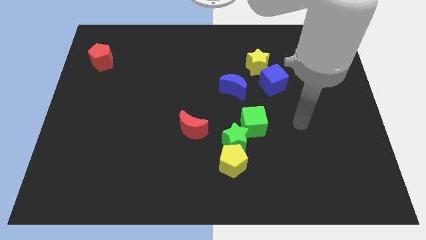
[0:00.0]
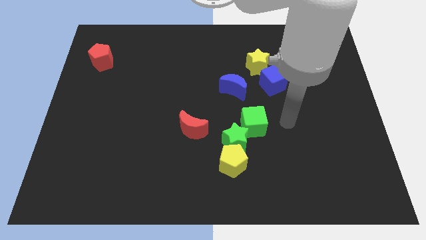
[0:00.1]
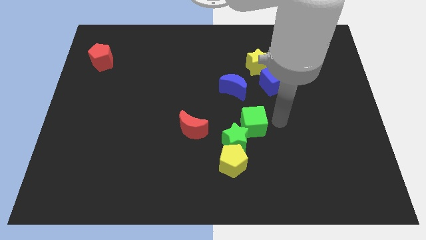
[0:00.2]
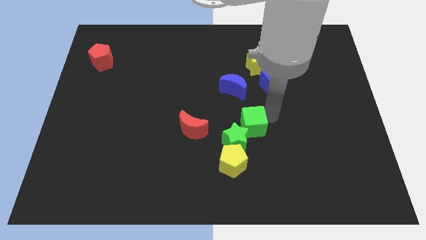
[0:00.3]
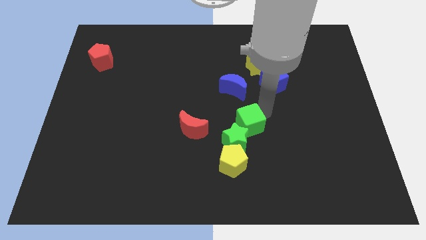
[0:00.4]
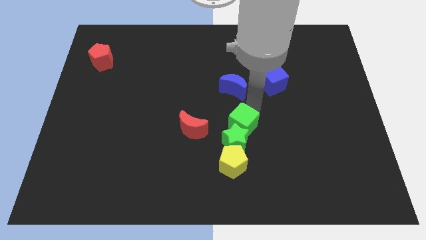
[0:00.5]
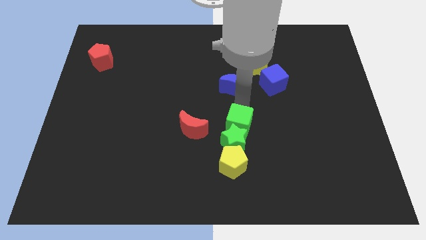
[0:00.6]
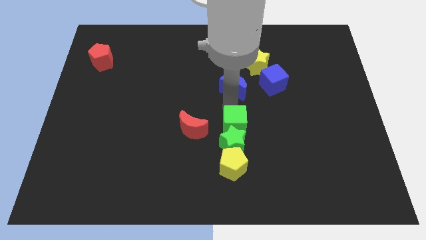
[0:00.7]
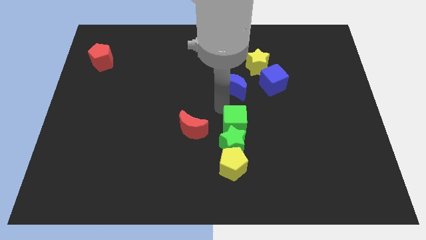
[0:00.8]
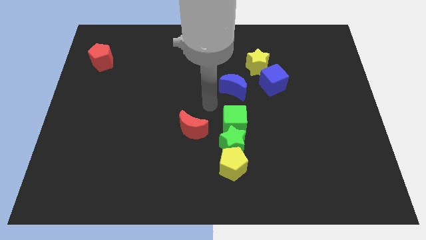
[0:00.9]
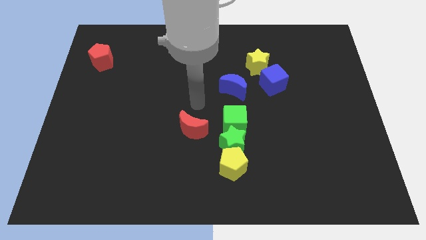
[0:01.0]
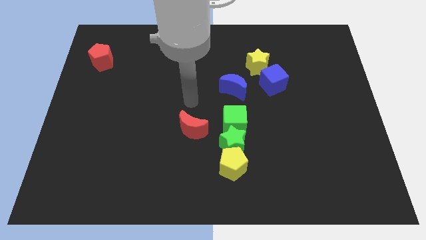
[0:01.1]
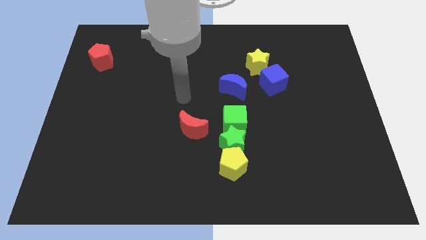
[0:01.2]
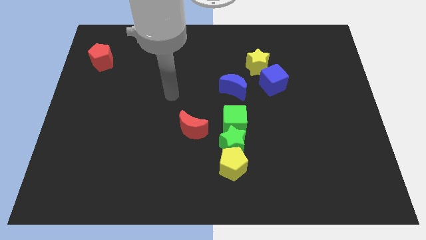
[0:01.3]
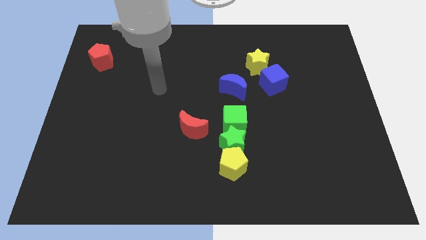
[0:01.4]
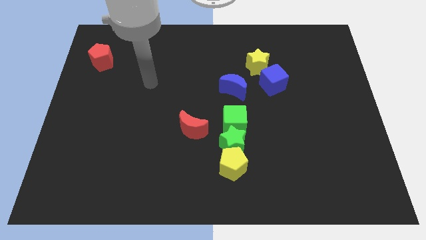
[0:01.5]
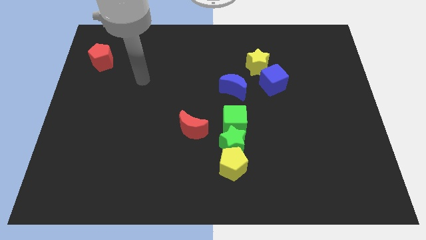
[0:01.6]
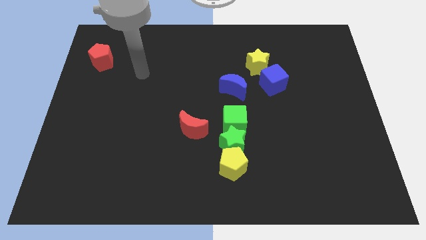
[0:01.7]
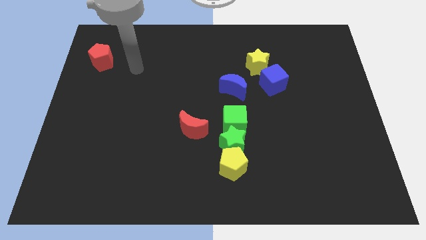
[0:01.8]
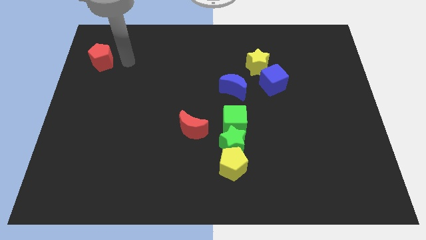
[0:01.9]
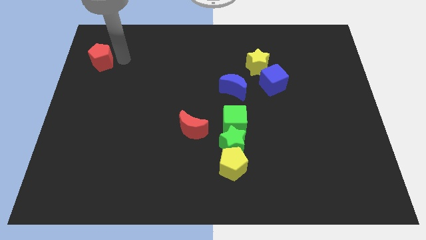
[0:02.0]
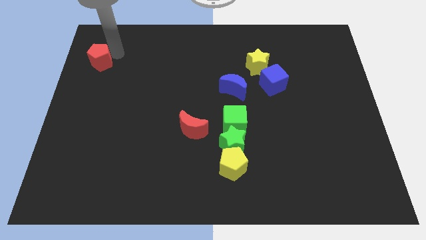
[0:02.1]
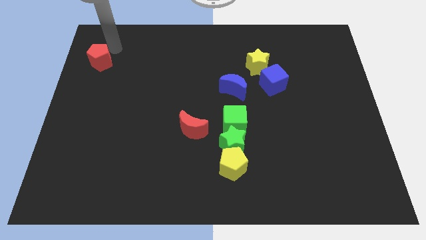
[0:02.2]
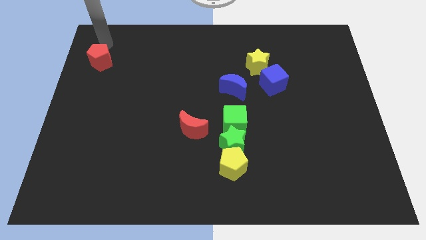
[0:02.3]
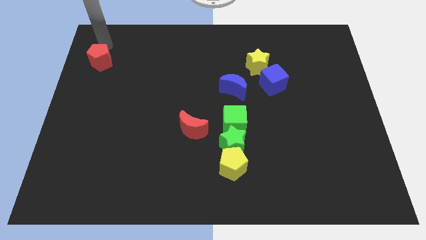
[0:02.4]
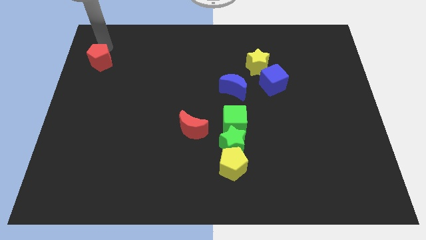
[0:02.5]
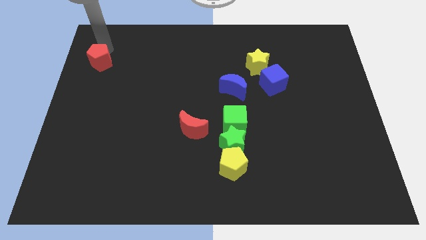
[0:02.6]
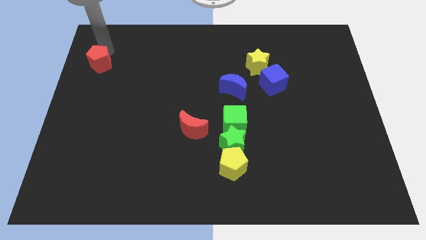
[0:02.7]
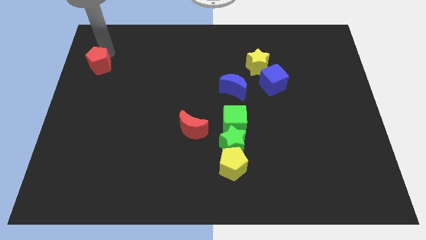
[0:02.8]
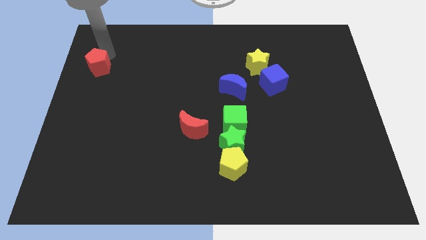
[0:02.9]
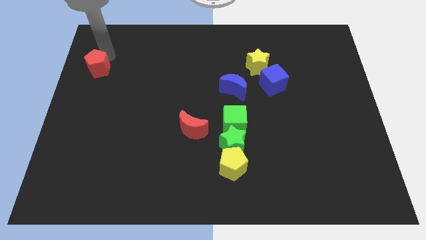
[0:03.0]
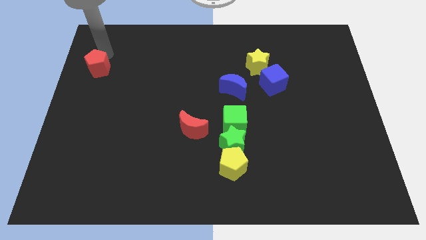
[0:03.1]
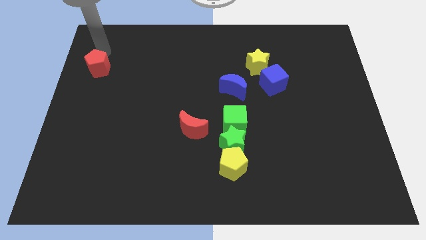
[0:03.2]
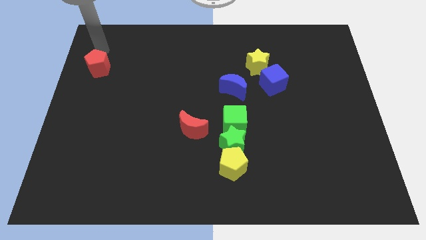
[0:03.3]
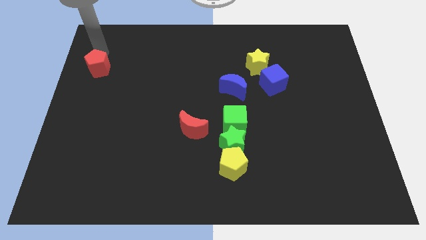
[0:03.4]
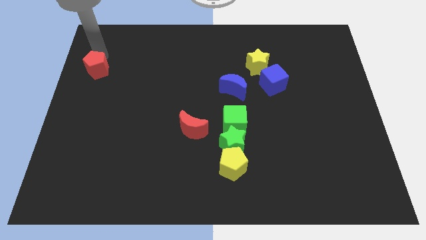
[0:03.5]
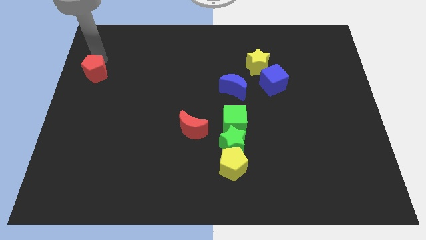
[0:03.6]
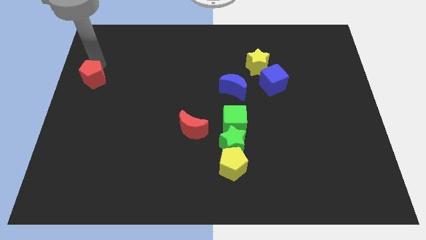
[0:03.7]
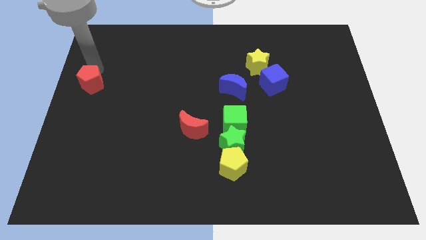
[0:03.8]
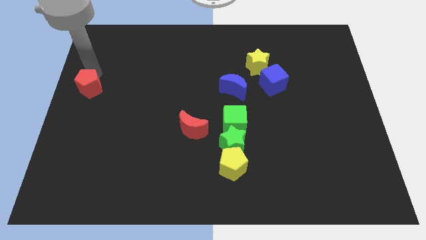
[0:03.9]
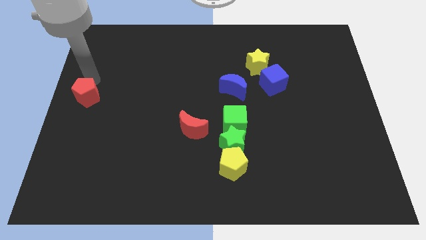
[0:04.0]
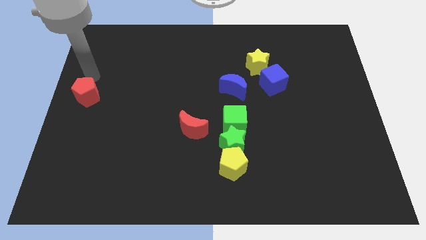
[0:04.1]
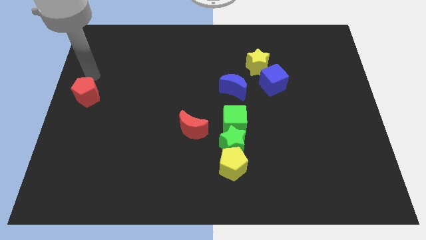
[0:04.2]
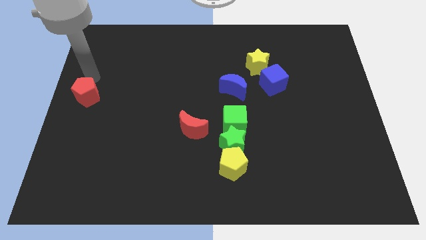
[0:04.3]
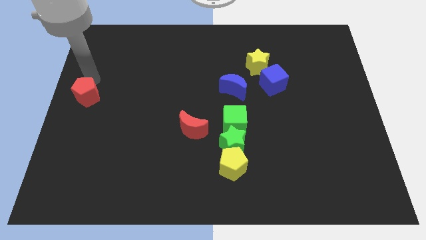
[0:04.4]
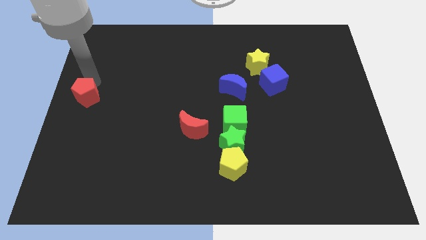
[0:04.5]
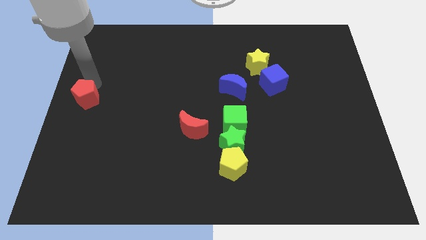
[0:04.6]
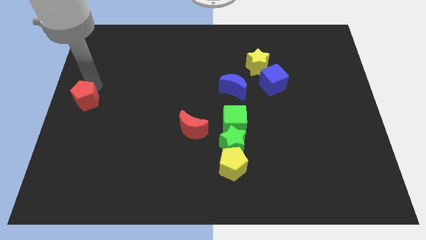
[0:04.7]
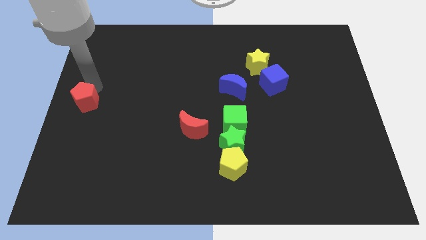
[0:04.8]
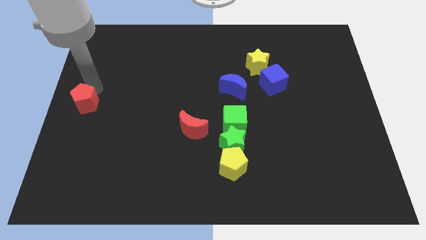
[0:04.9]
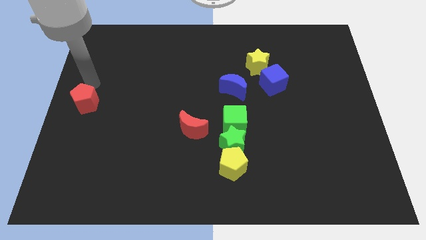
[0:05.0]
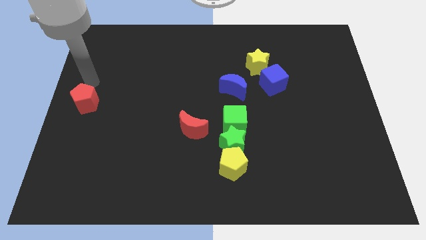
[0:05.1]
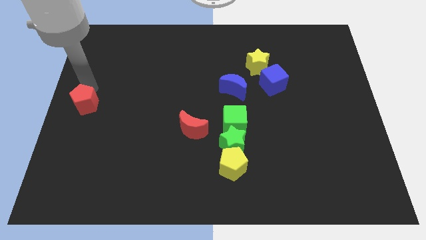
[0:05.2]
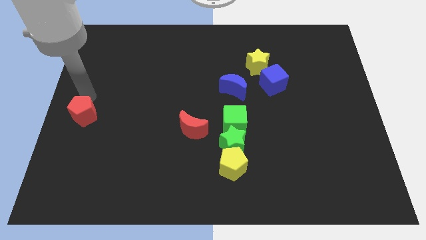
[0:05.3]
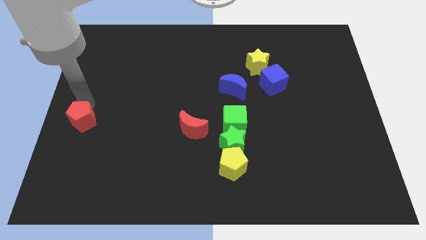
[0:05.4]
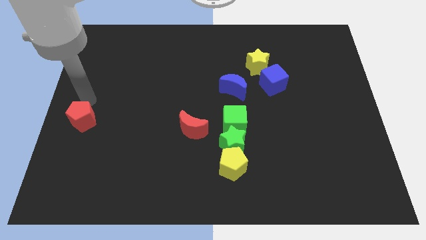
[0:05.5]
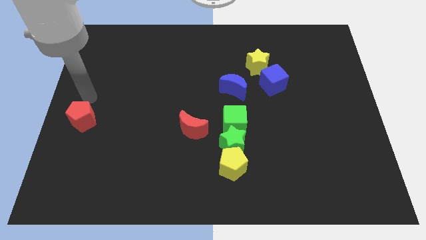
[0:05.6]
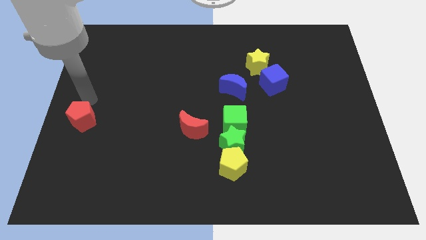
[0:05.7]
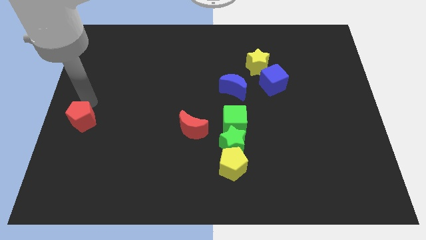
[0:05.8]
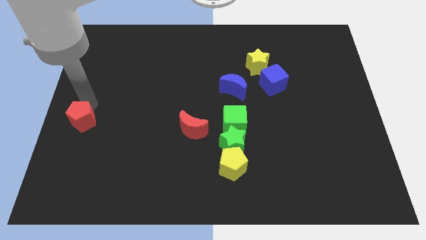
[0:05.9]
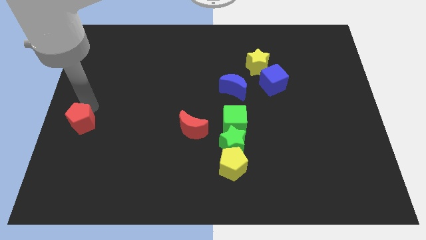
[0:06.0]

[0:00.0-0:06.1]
slide the red pentagon downwards

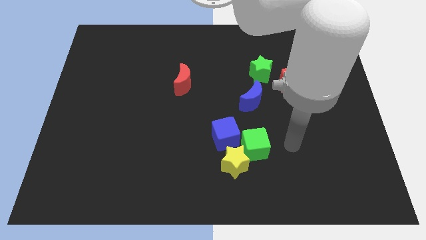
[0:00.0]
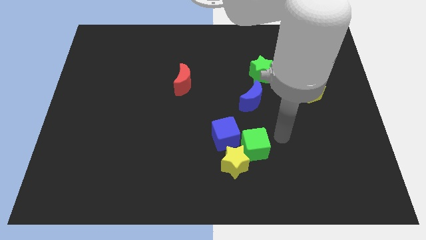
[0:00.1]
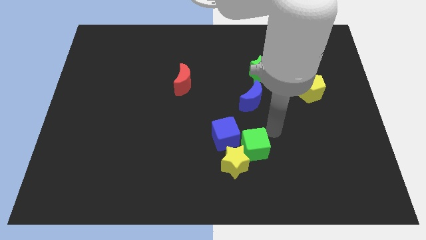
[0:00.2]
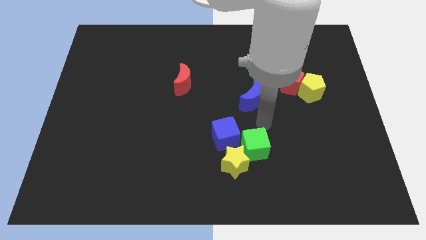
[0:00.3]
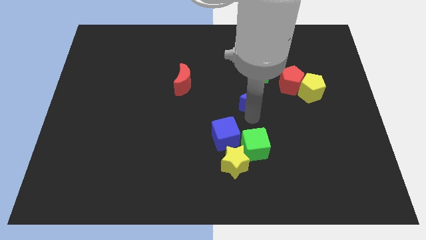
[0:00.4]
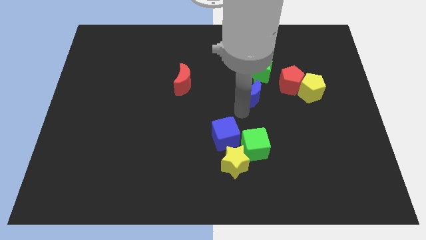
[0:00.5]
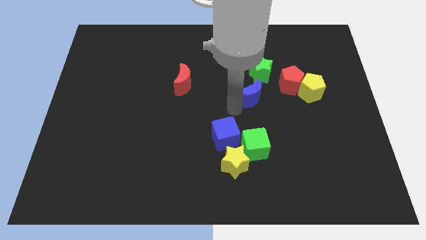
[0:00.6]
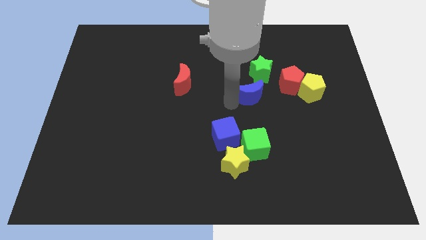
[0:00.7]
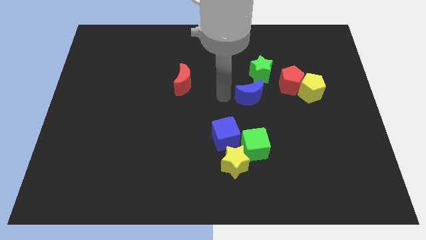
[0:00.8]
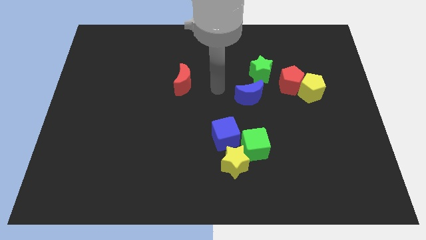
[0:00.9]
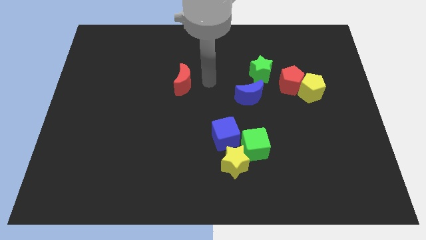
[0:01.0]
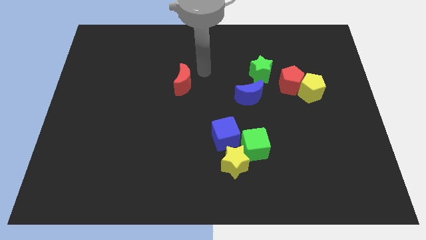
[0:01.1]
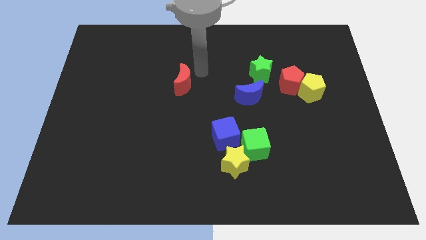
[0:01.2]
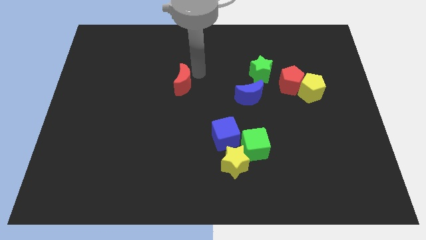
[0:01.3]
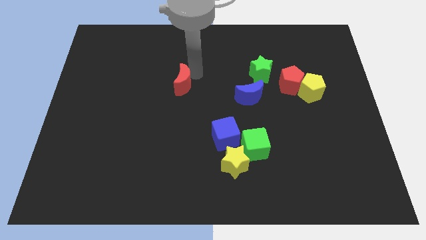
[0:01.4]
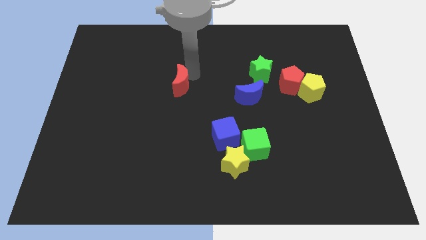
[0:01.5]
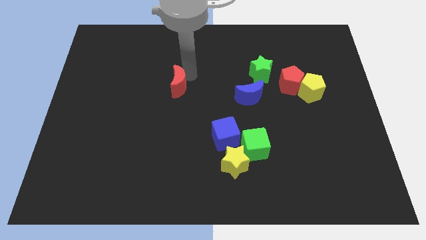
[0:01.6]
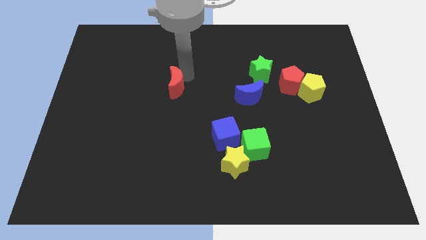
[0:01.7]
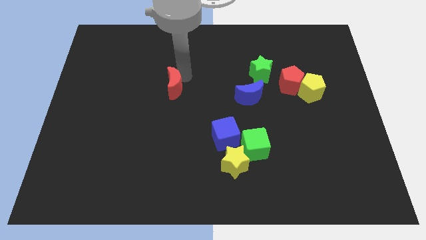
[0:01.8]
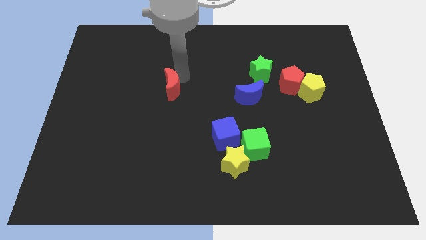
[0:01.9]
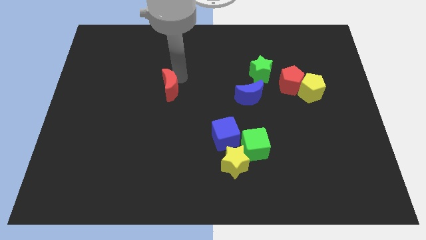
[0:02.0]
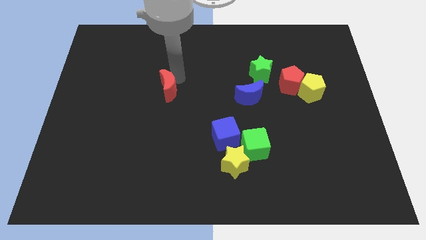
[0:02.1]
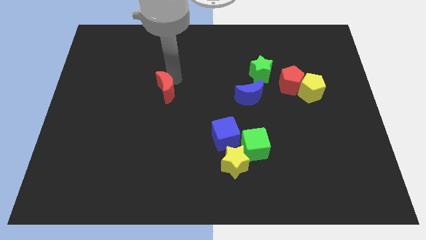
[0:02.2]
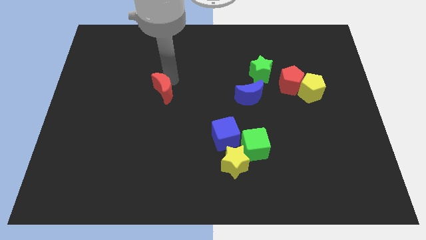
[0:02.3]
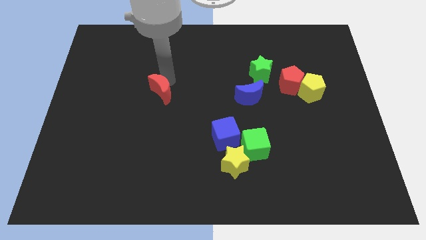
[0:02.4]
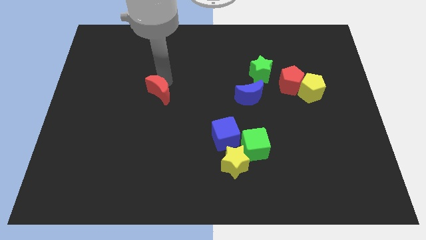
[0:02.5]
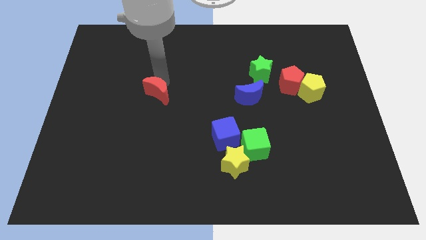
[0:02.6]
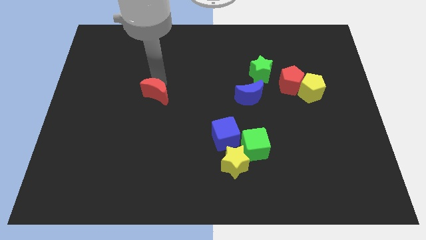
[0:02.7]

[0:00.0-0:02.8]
move the red moon a bit diagonally down and to the left
